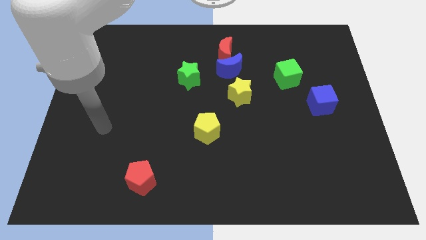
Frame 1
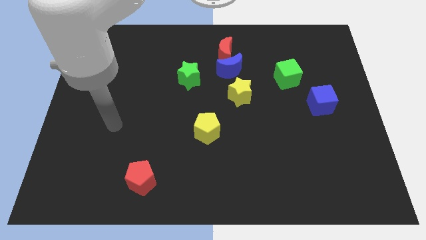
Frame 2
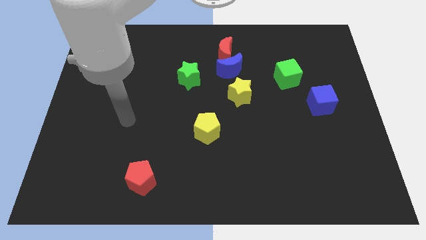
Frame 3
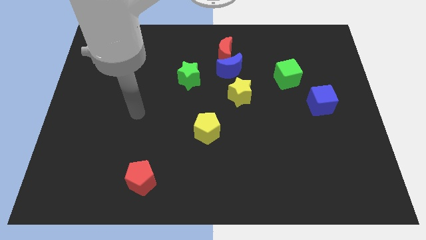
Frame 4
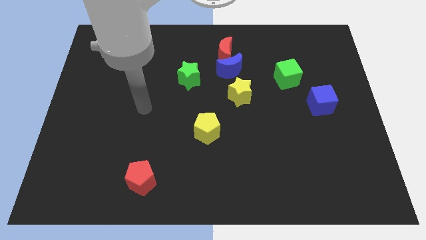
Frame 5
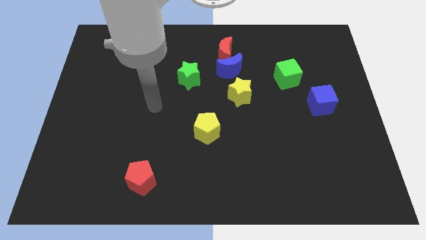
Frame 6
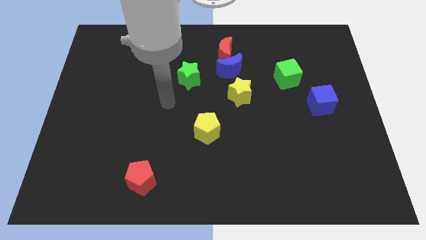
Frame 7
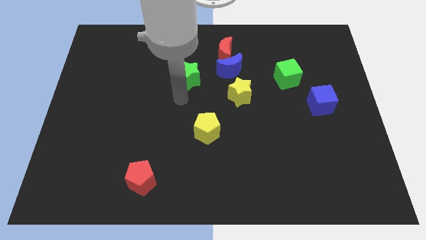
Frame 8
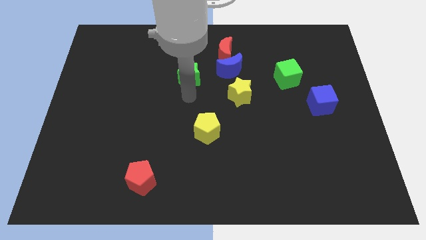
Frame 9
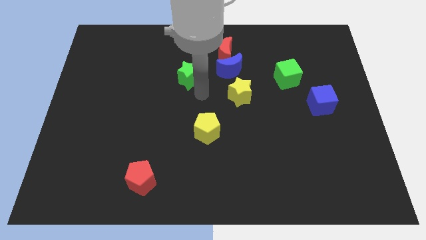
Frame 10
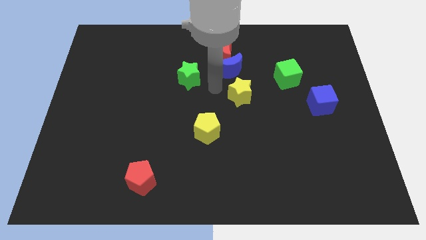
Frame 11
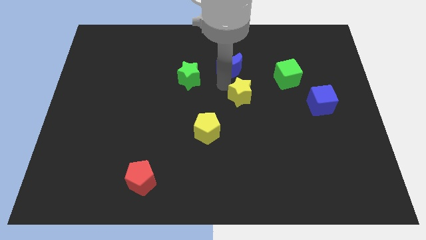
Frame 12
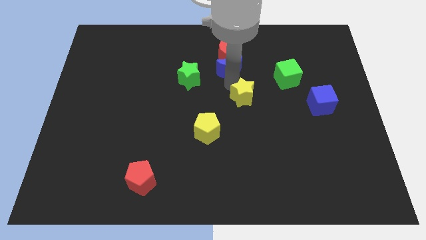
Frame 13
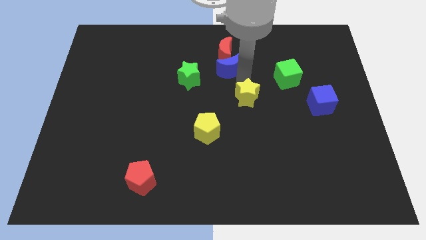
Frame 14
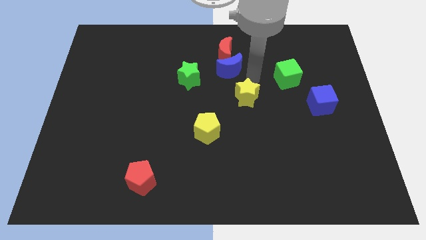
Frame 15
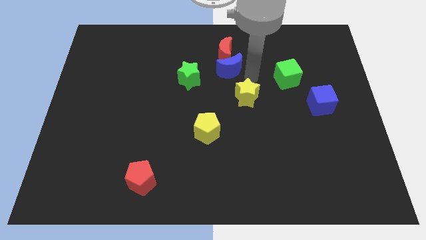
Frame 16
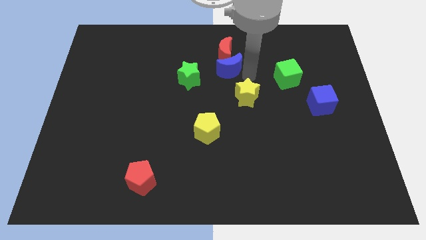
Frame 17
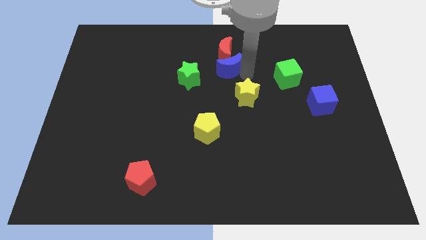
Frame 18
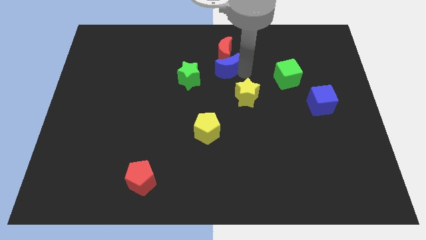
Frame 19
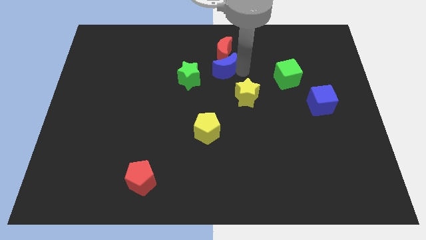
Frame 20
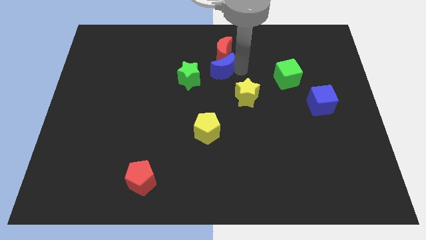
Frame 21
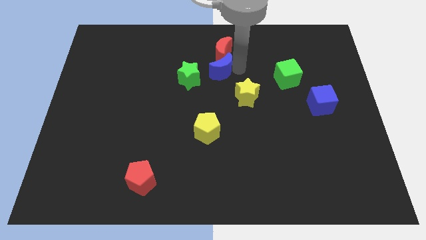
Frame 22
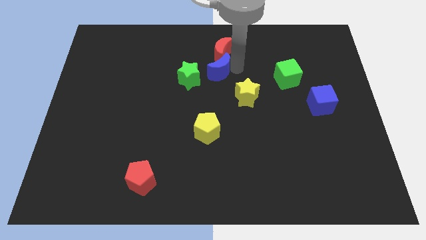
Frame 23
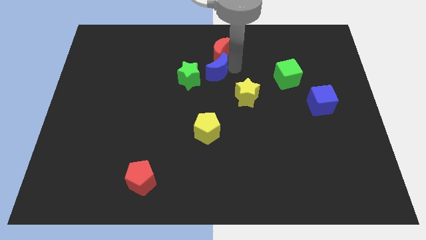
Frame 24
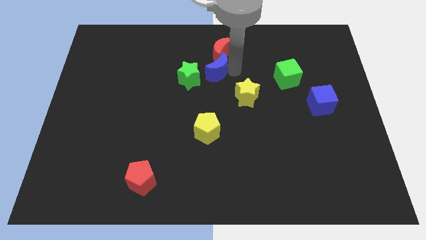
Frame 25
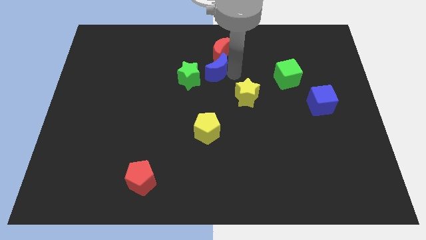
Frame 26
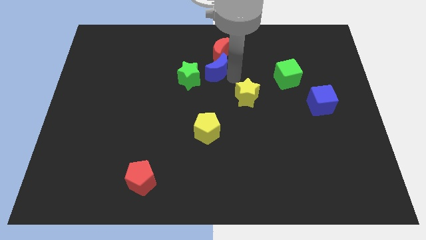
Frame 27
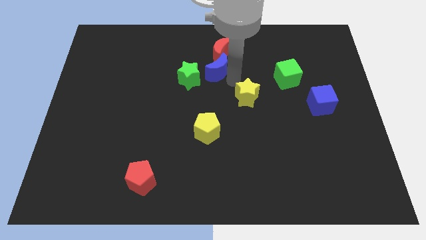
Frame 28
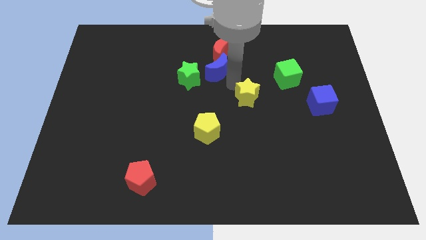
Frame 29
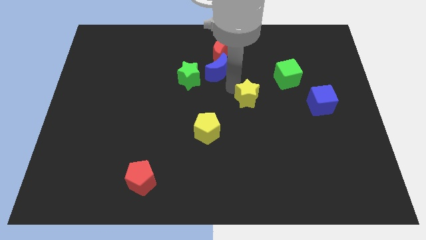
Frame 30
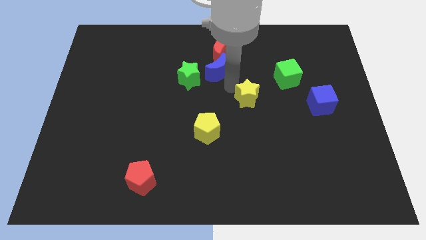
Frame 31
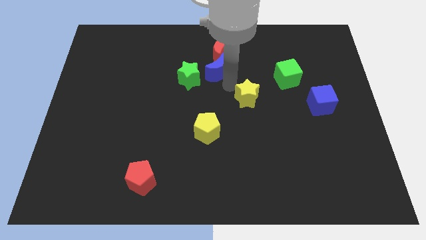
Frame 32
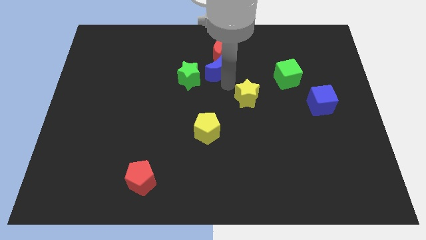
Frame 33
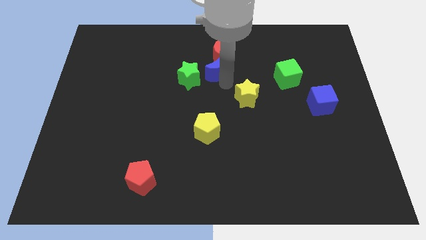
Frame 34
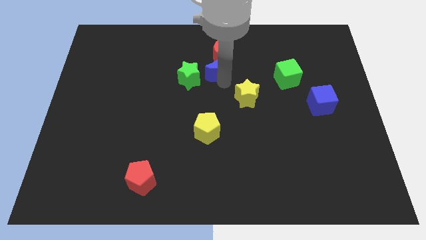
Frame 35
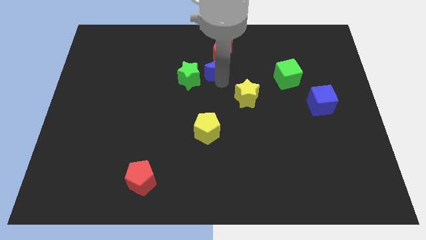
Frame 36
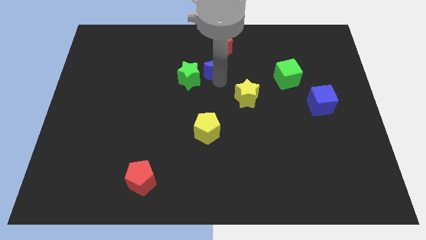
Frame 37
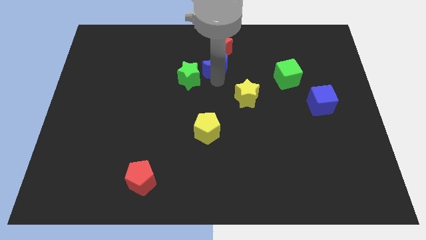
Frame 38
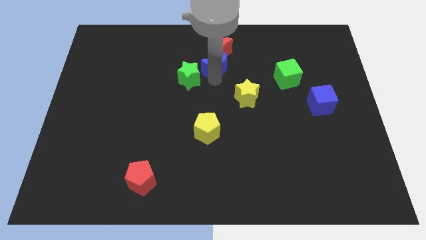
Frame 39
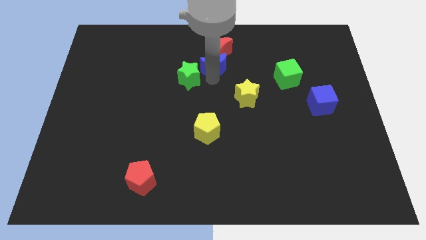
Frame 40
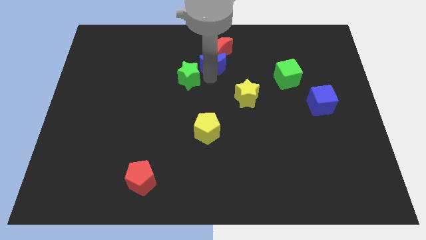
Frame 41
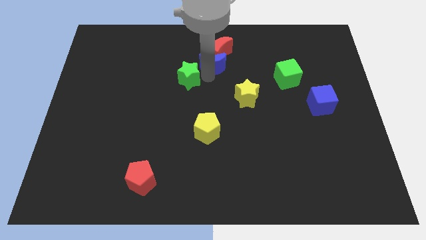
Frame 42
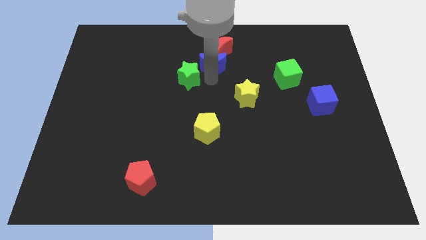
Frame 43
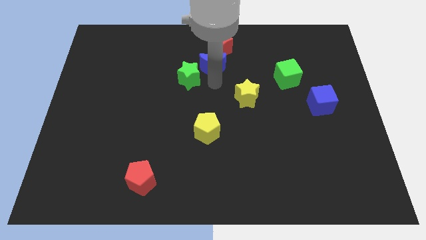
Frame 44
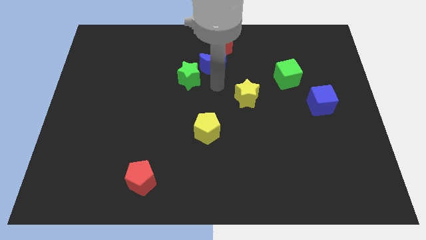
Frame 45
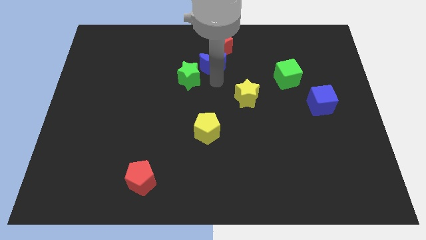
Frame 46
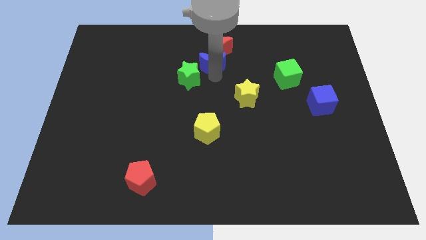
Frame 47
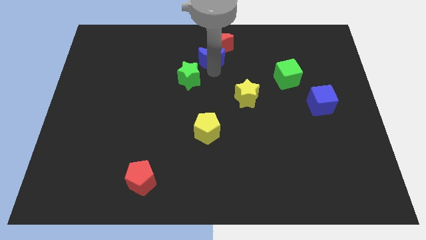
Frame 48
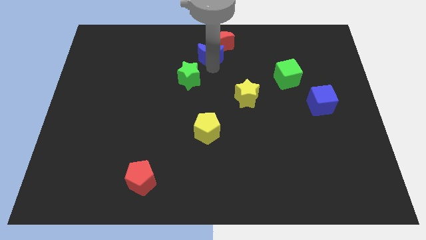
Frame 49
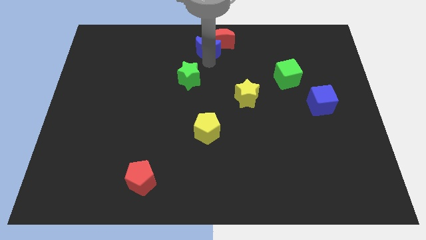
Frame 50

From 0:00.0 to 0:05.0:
slide the blue moon to the top

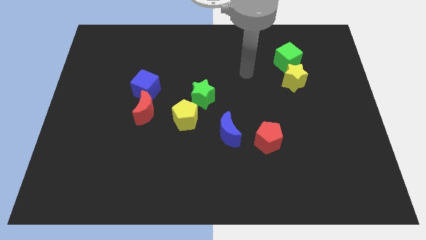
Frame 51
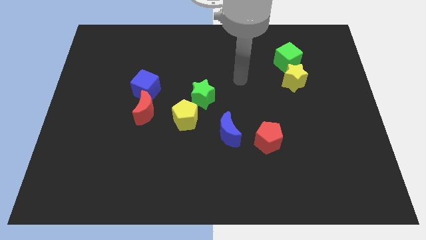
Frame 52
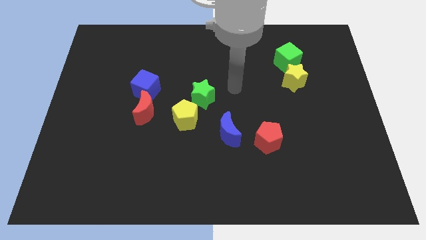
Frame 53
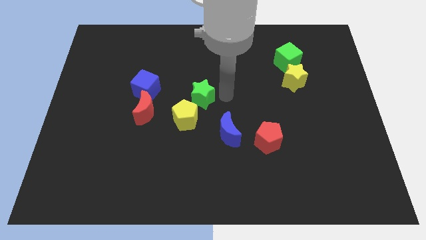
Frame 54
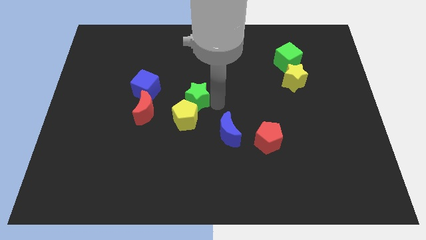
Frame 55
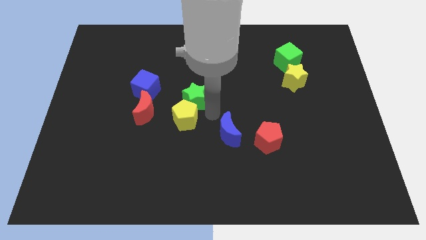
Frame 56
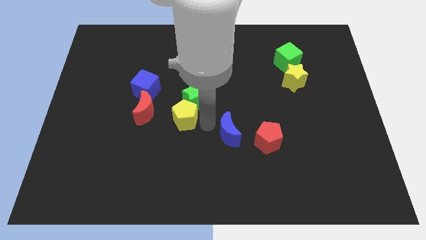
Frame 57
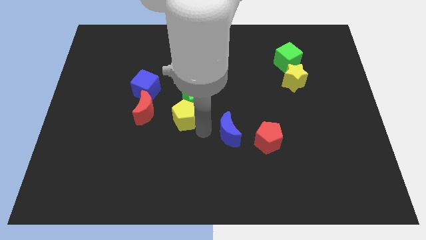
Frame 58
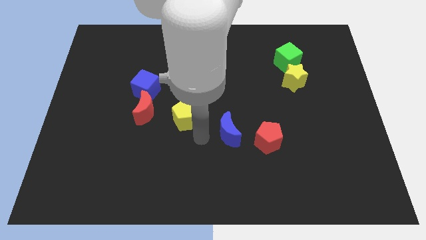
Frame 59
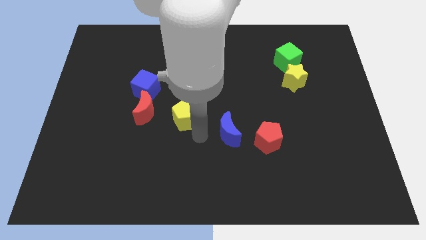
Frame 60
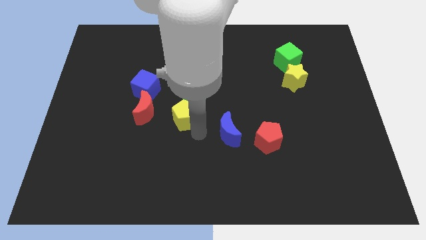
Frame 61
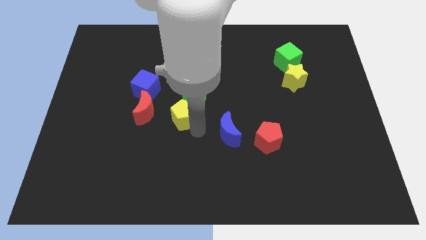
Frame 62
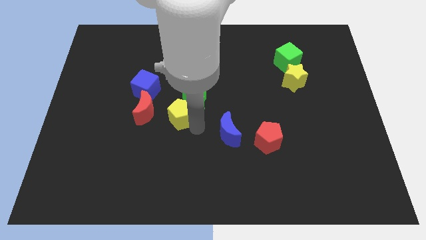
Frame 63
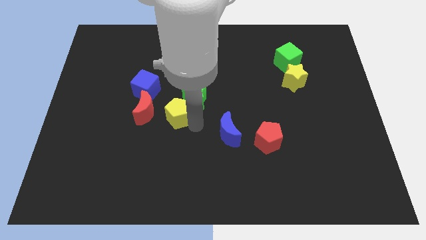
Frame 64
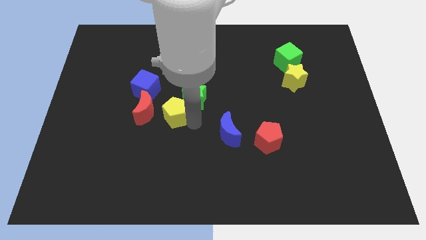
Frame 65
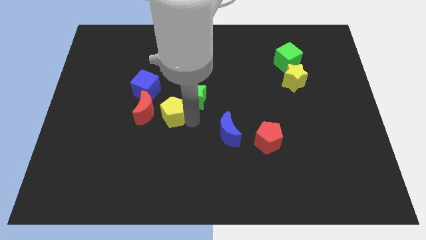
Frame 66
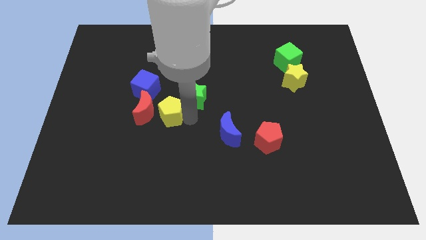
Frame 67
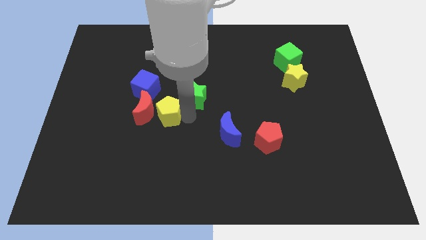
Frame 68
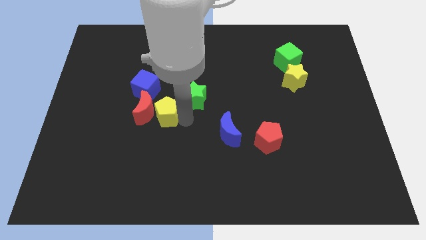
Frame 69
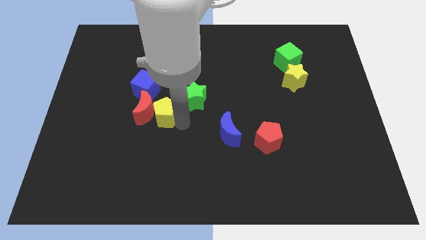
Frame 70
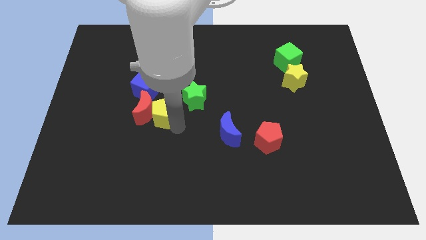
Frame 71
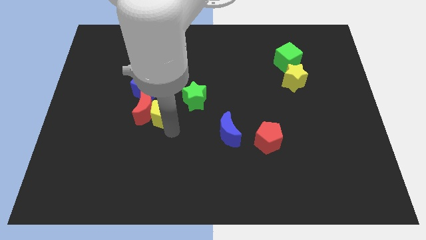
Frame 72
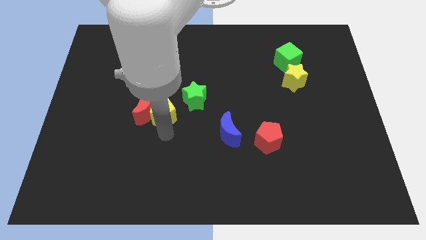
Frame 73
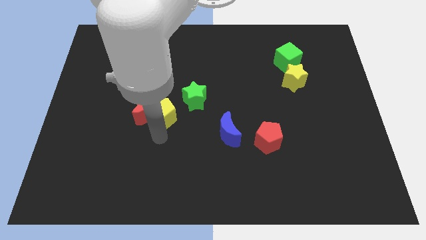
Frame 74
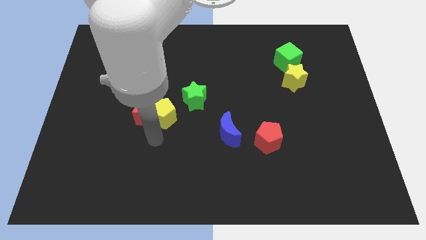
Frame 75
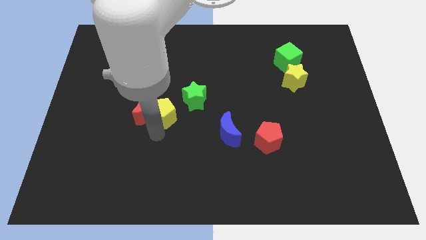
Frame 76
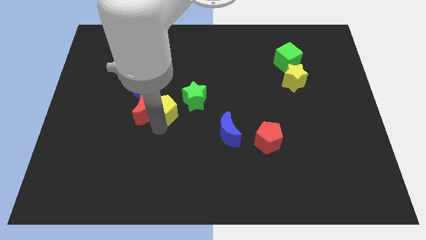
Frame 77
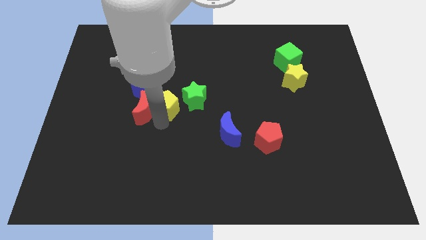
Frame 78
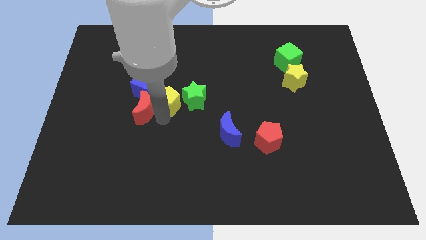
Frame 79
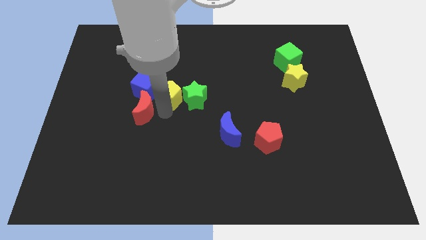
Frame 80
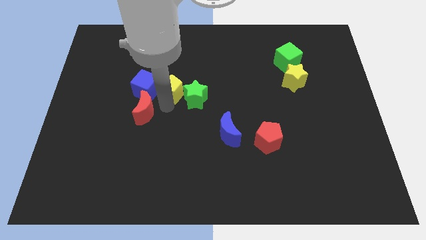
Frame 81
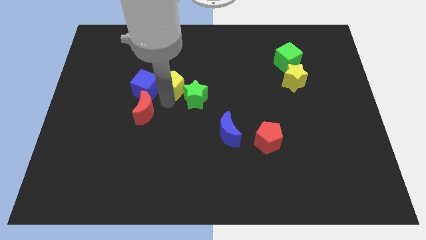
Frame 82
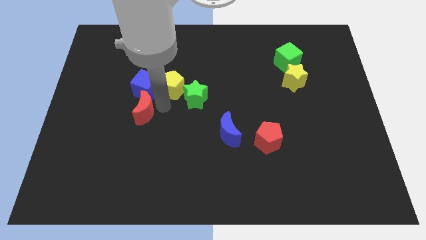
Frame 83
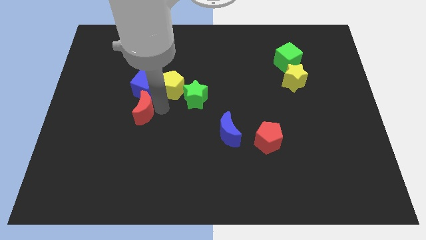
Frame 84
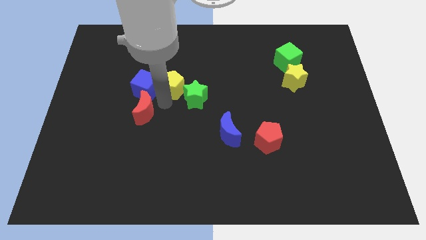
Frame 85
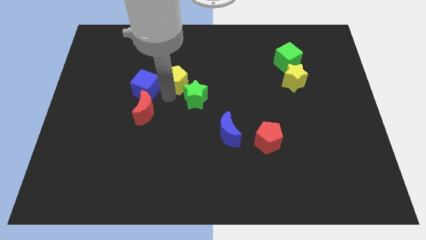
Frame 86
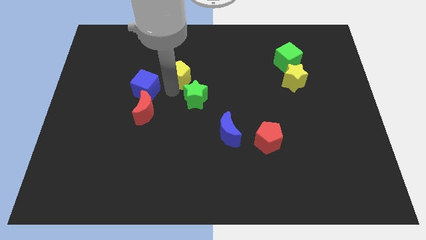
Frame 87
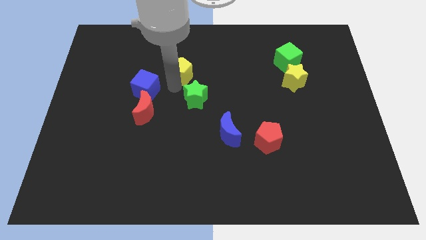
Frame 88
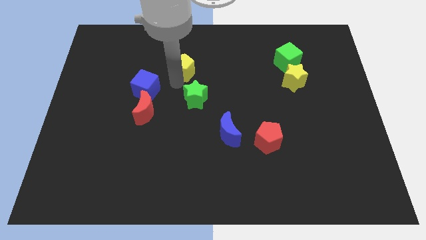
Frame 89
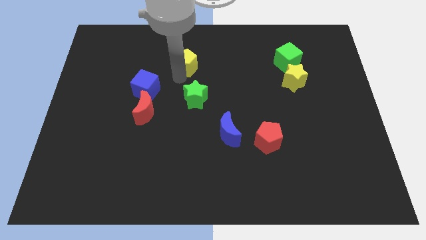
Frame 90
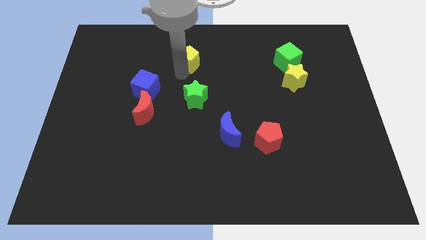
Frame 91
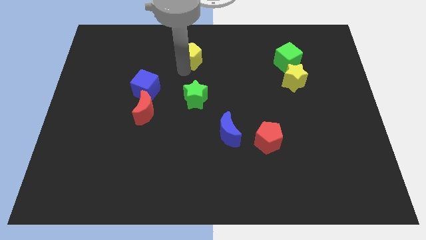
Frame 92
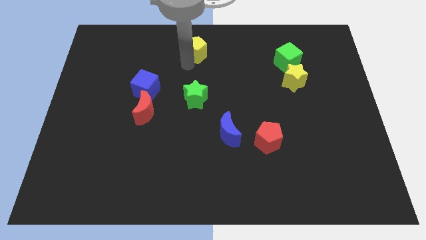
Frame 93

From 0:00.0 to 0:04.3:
put the yellow pentagon to the top
